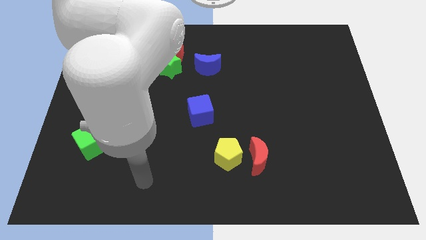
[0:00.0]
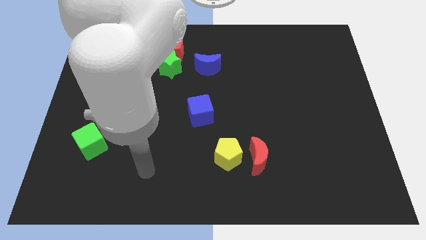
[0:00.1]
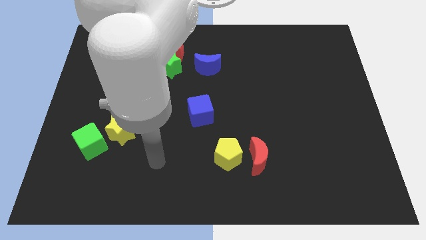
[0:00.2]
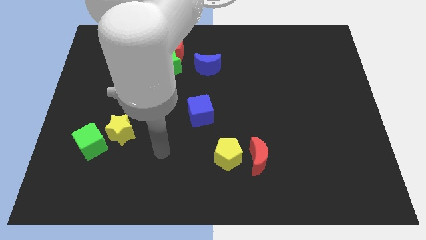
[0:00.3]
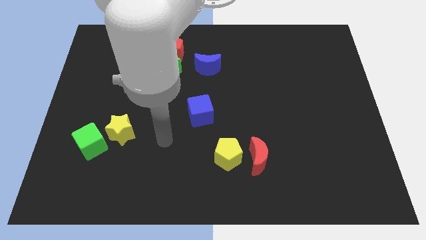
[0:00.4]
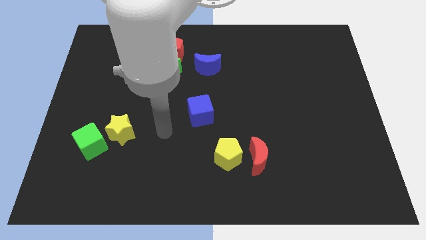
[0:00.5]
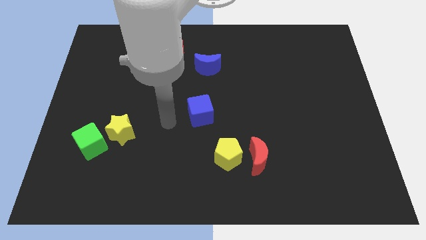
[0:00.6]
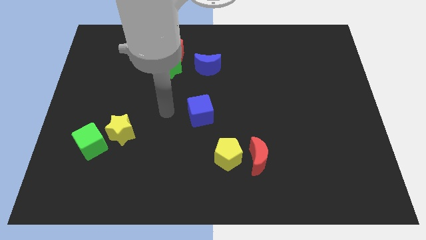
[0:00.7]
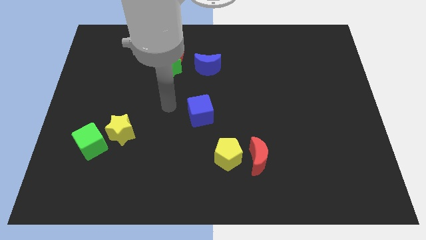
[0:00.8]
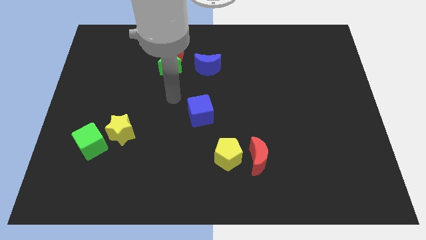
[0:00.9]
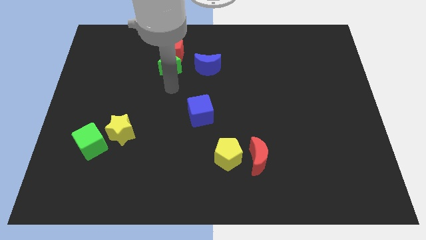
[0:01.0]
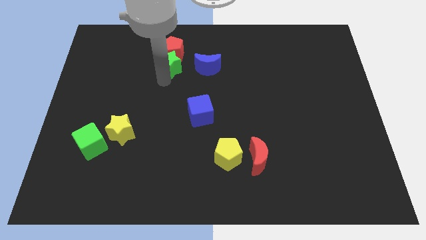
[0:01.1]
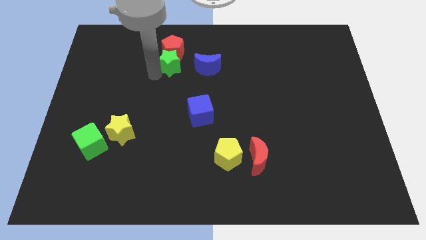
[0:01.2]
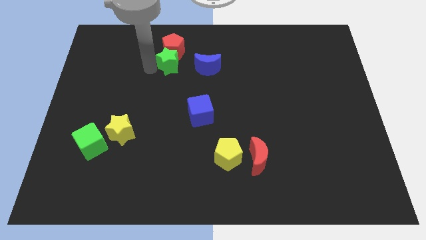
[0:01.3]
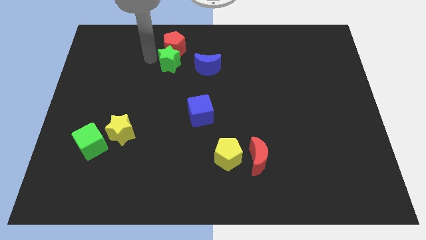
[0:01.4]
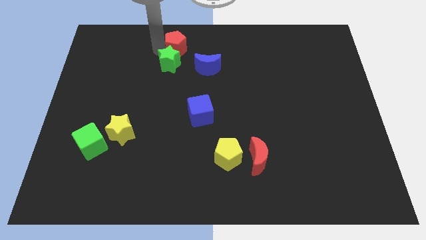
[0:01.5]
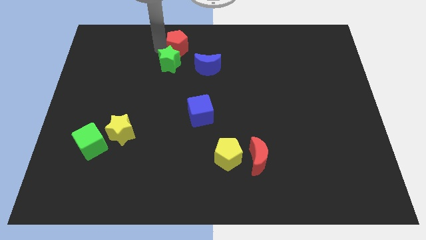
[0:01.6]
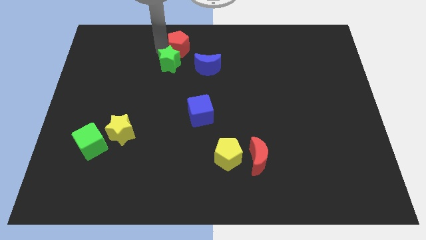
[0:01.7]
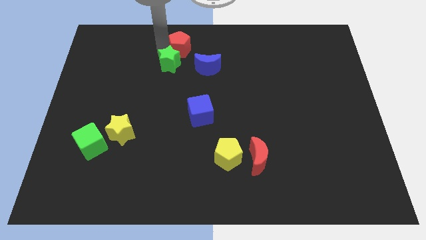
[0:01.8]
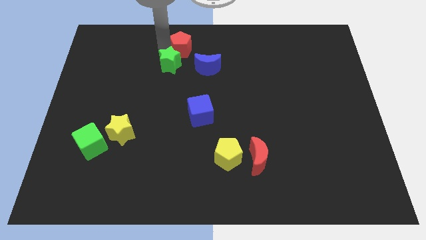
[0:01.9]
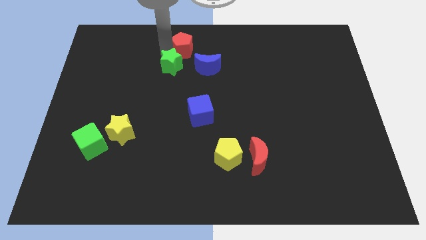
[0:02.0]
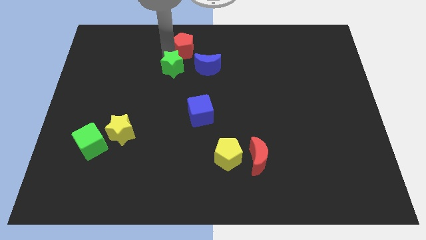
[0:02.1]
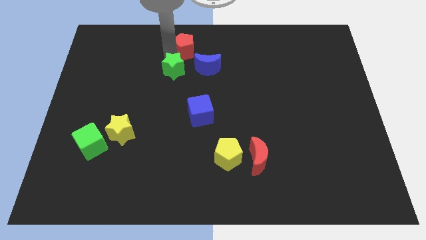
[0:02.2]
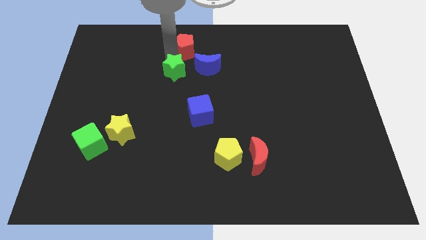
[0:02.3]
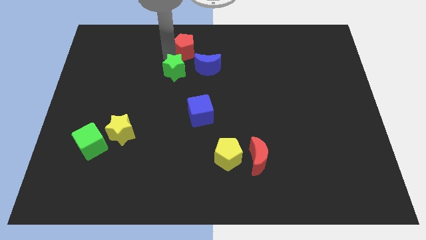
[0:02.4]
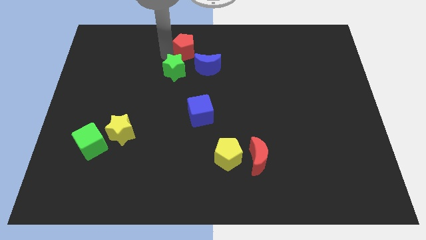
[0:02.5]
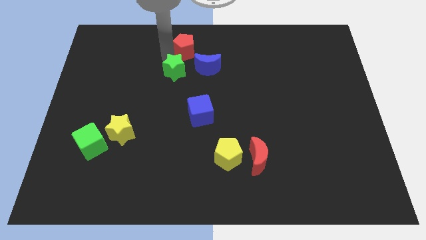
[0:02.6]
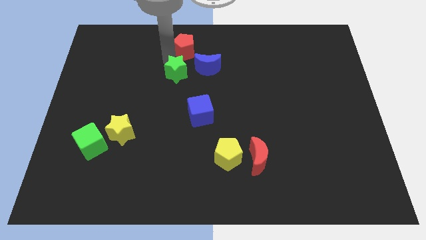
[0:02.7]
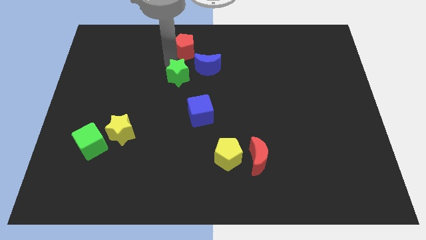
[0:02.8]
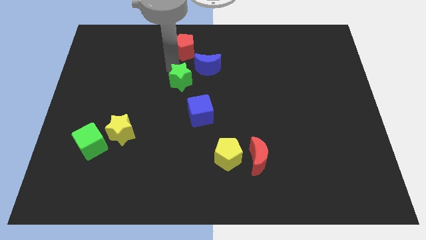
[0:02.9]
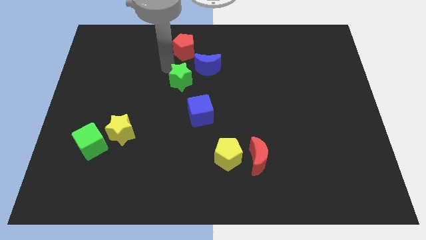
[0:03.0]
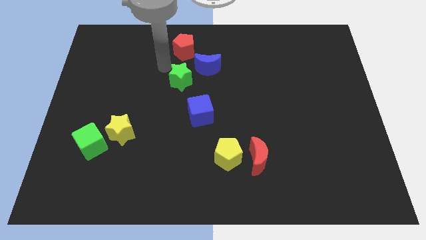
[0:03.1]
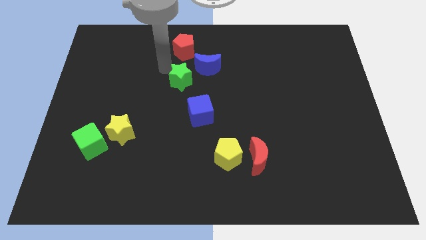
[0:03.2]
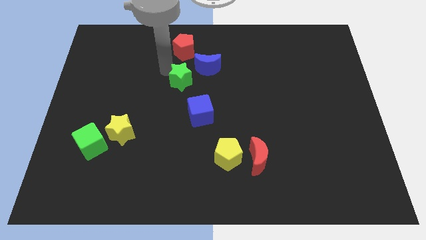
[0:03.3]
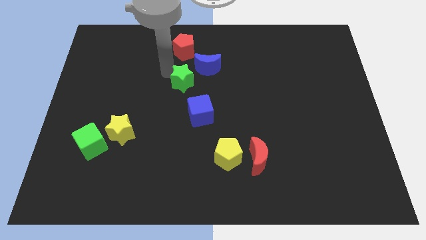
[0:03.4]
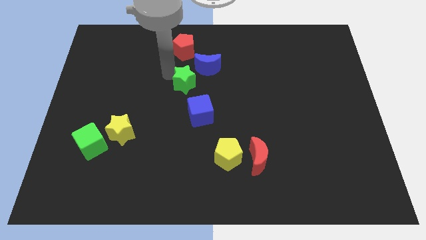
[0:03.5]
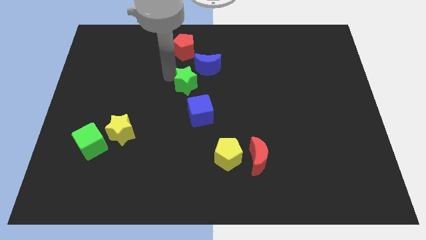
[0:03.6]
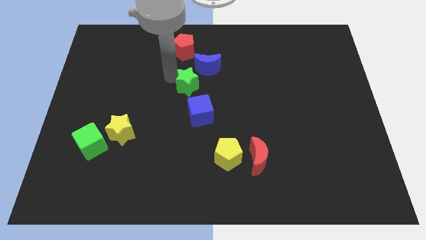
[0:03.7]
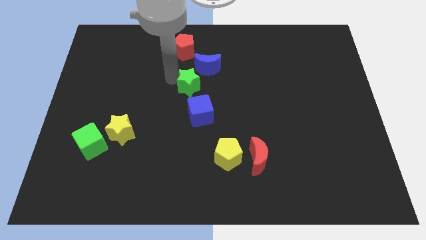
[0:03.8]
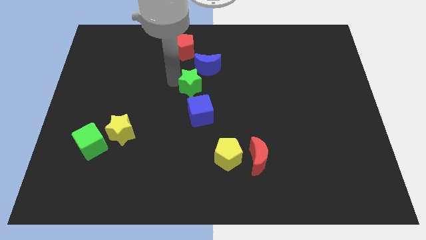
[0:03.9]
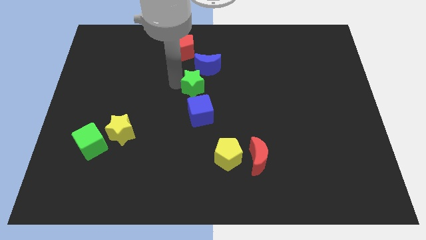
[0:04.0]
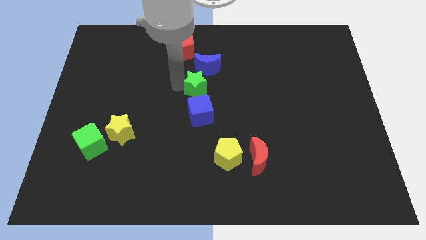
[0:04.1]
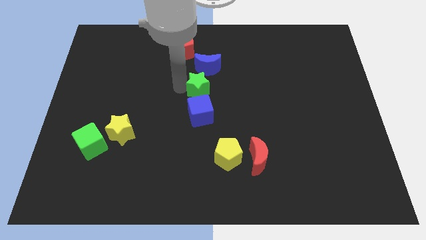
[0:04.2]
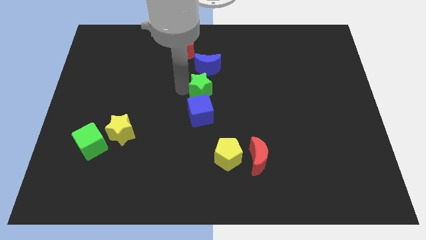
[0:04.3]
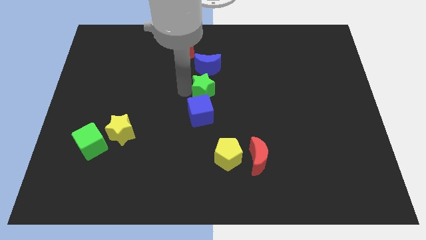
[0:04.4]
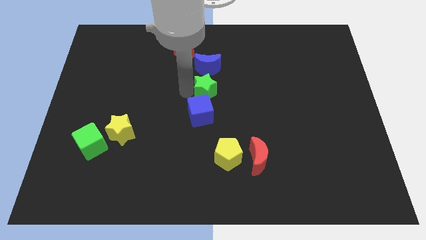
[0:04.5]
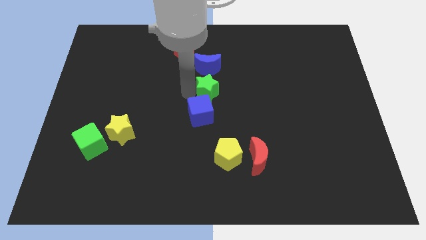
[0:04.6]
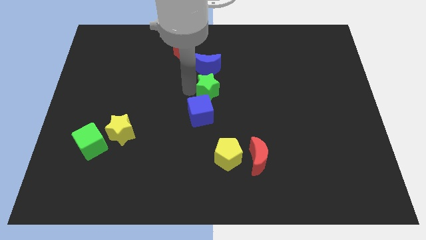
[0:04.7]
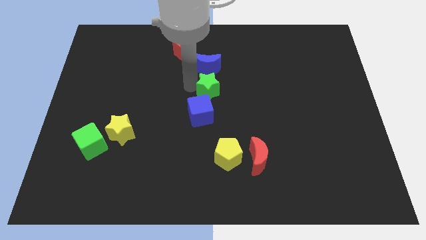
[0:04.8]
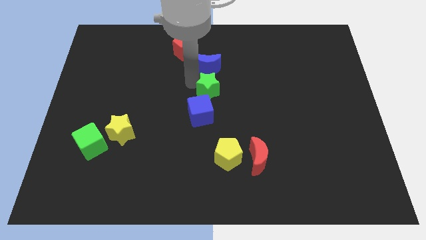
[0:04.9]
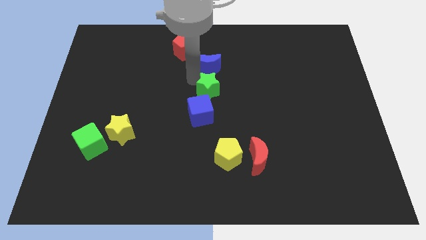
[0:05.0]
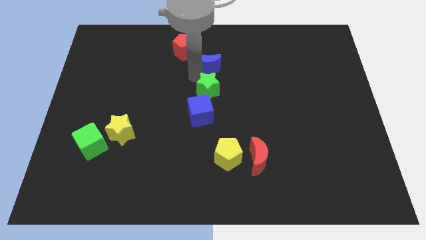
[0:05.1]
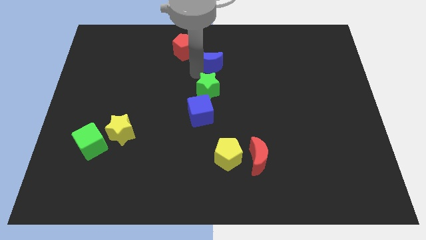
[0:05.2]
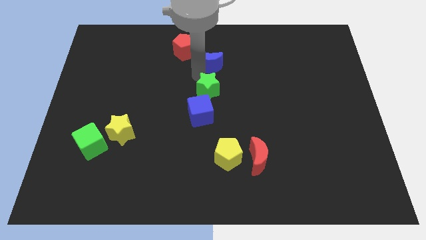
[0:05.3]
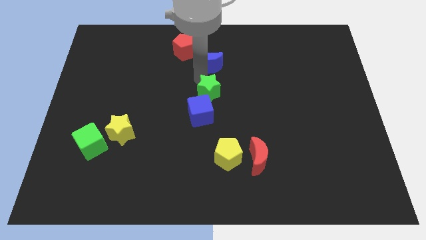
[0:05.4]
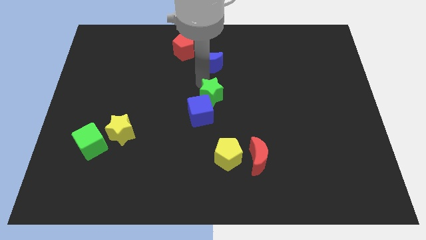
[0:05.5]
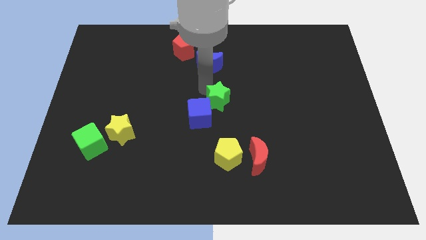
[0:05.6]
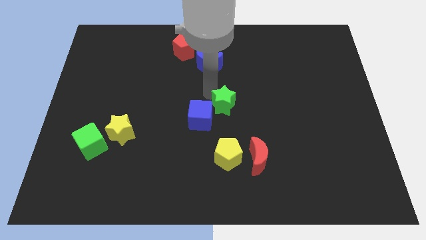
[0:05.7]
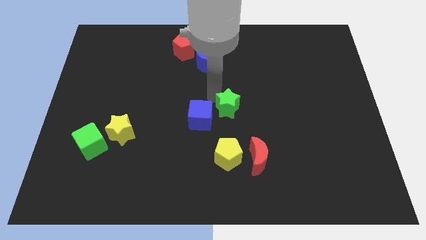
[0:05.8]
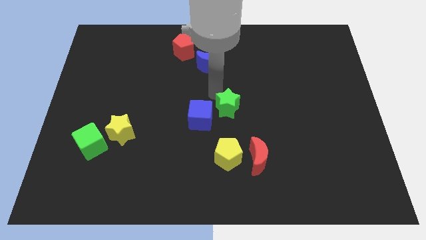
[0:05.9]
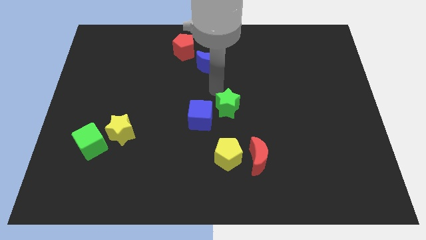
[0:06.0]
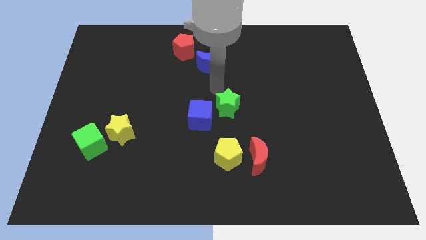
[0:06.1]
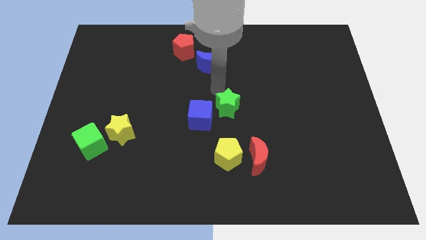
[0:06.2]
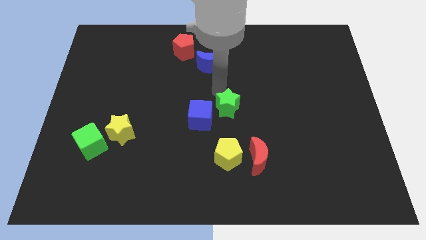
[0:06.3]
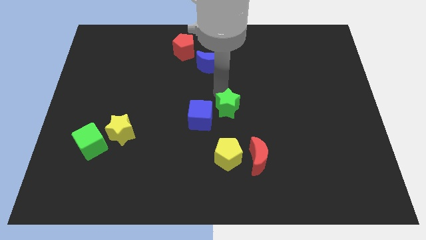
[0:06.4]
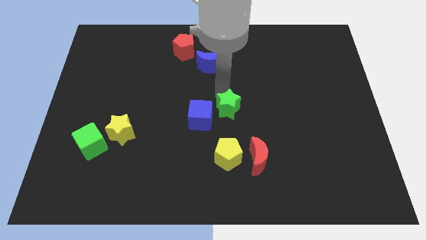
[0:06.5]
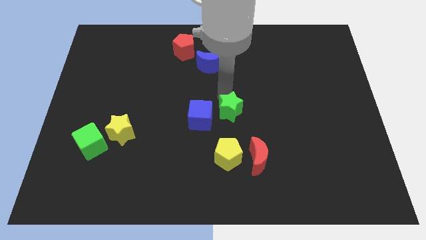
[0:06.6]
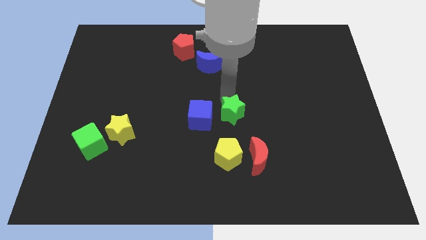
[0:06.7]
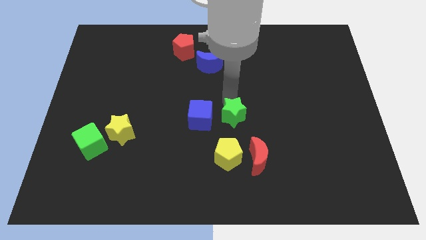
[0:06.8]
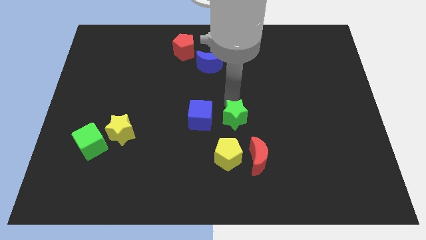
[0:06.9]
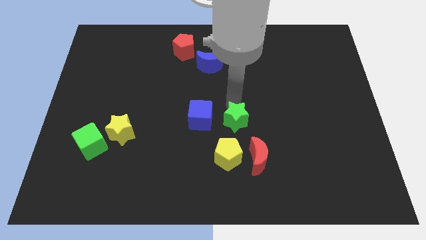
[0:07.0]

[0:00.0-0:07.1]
move the green star diagonally up and to the left of the red moon
